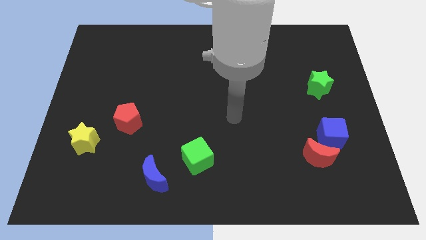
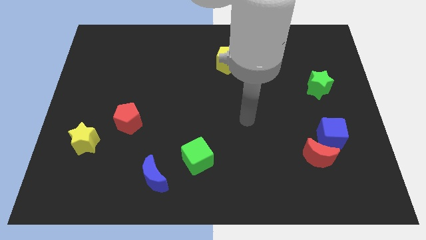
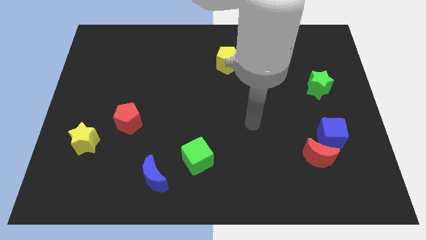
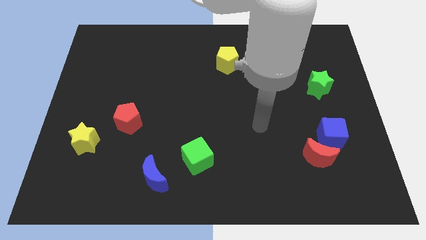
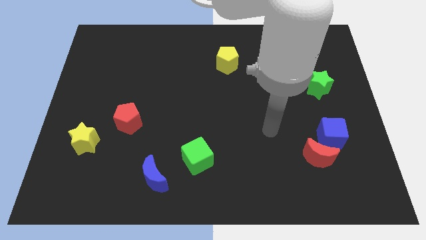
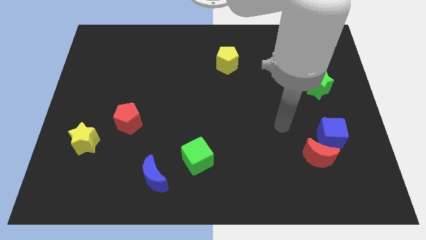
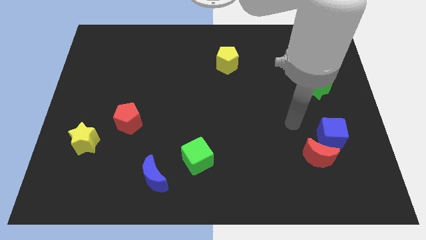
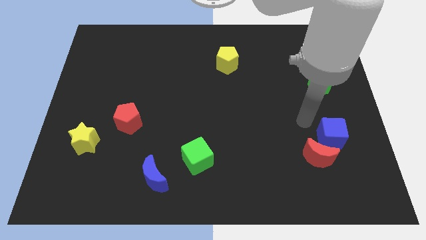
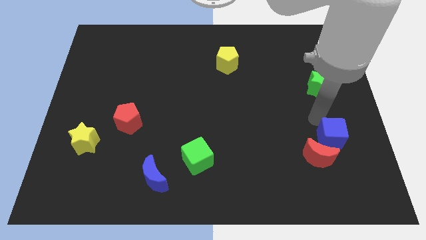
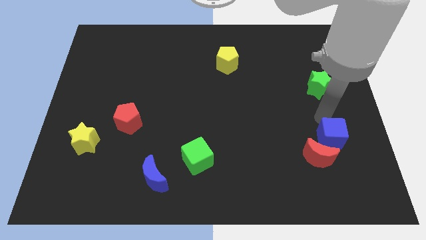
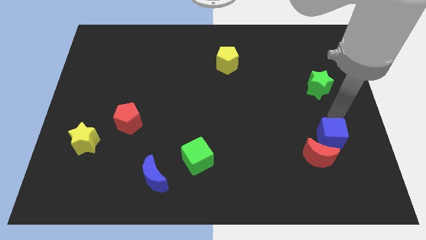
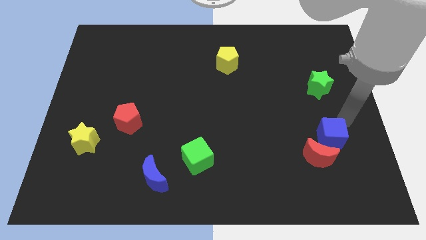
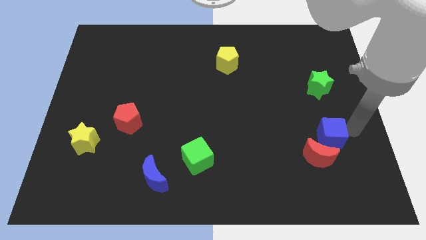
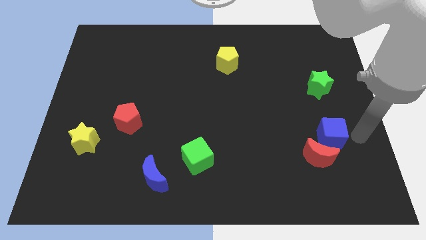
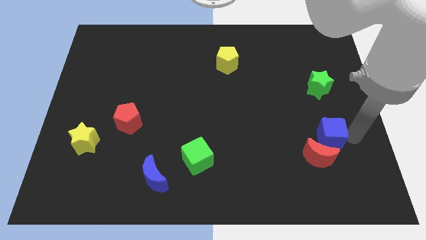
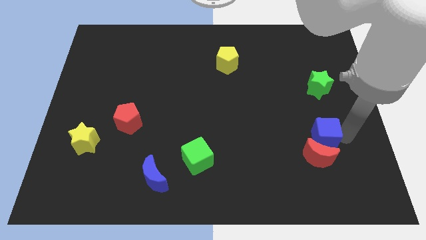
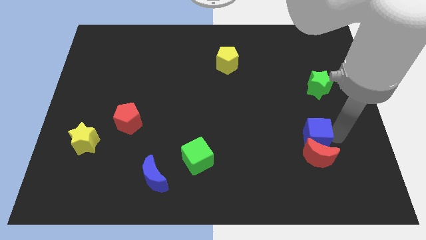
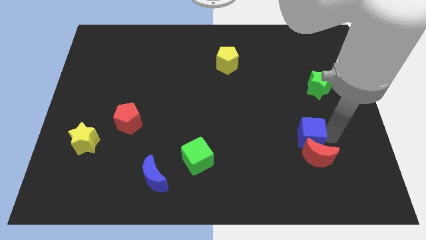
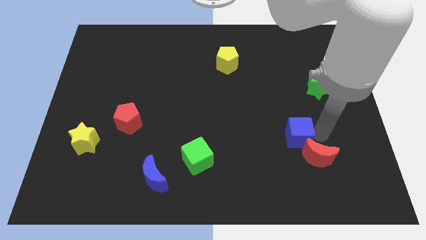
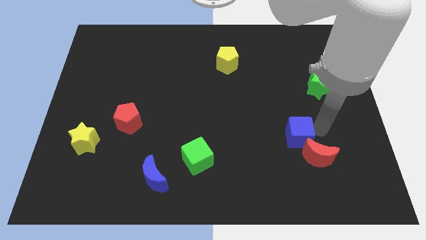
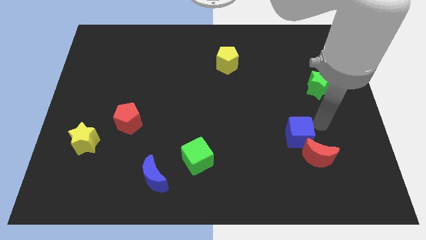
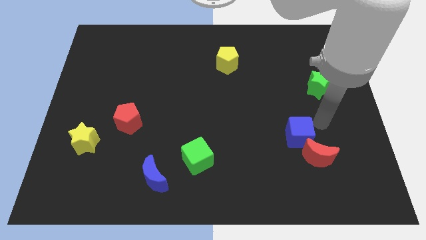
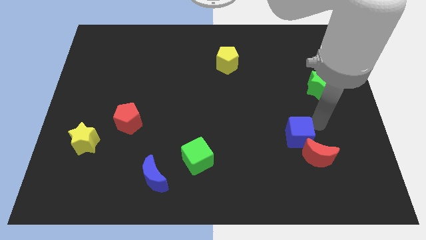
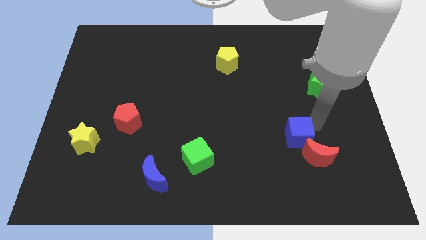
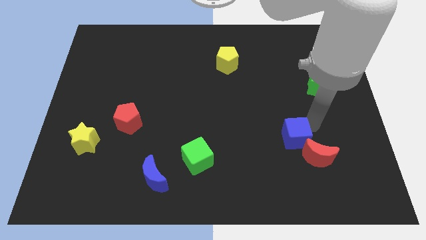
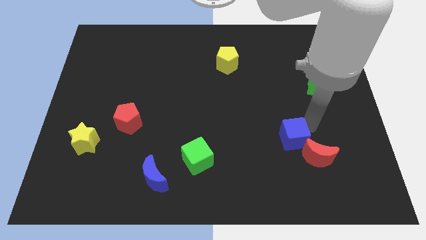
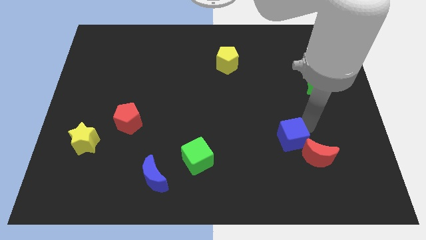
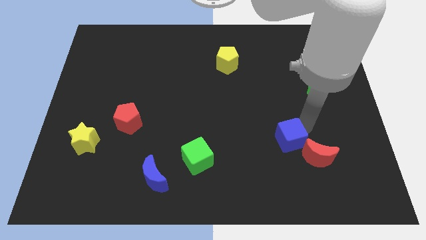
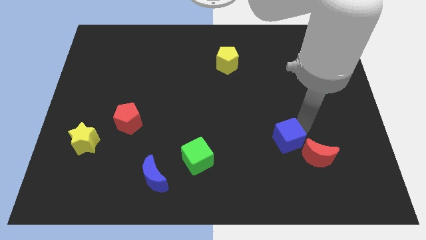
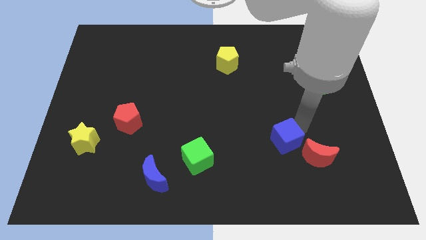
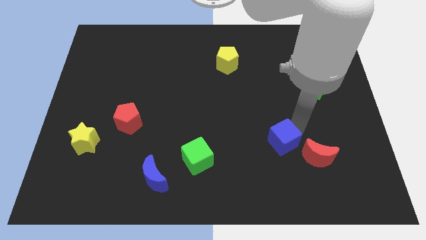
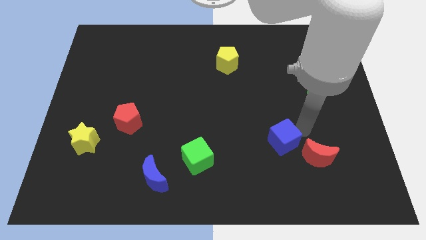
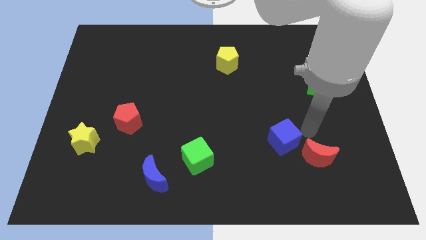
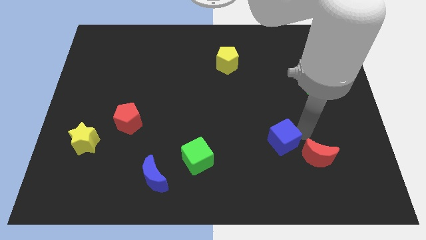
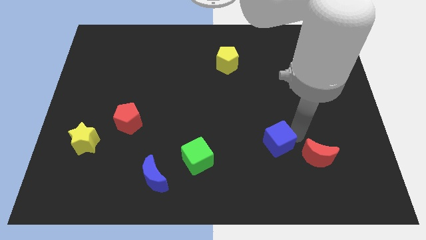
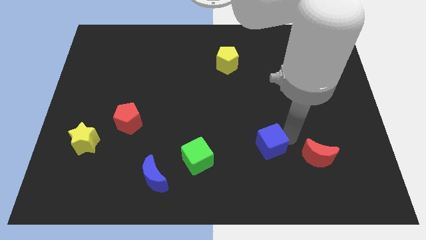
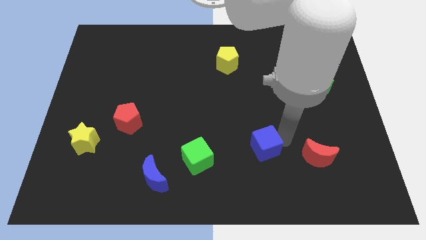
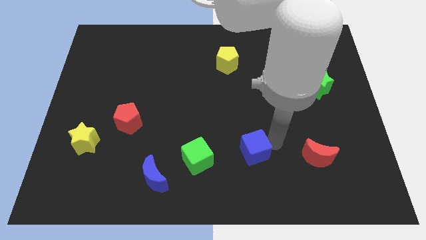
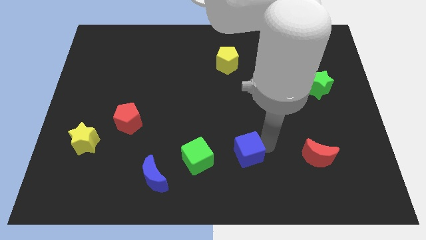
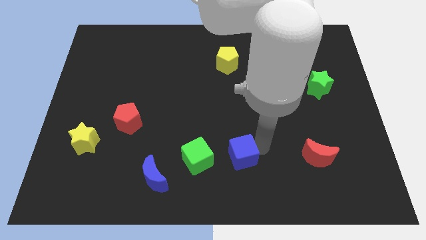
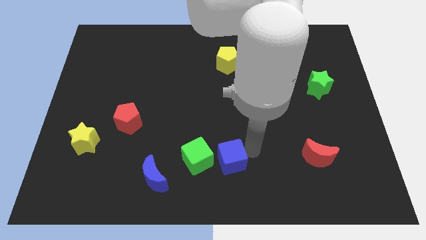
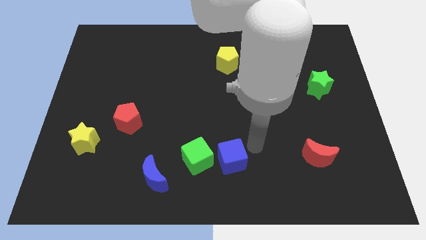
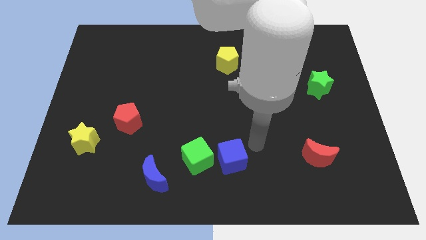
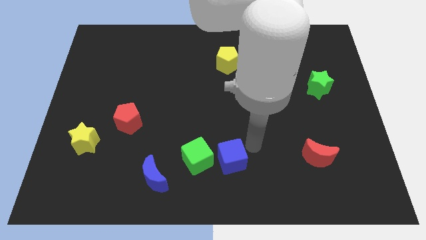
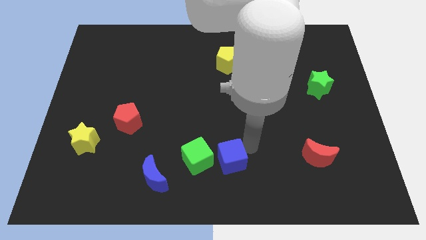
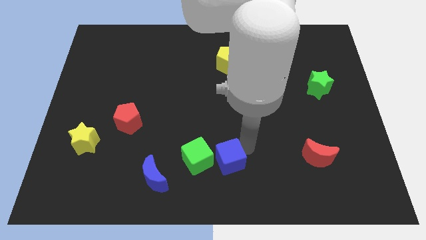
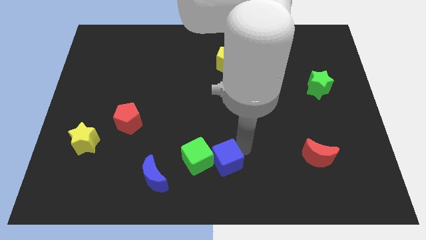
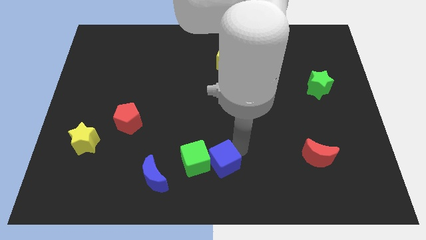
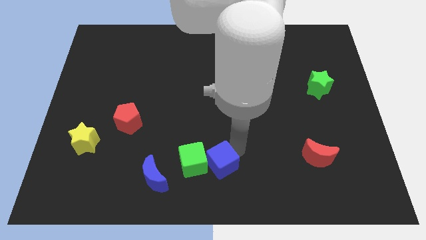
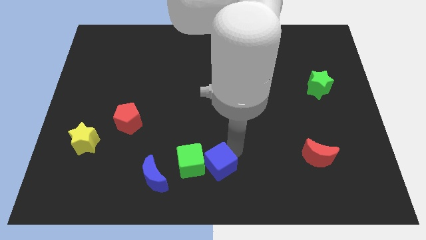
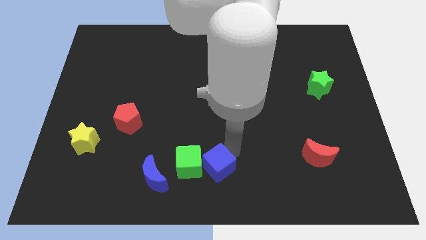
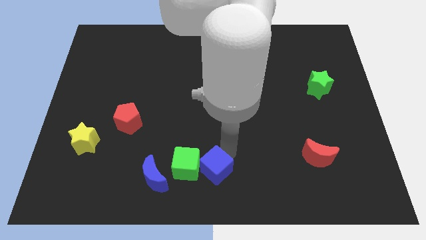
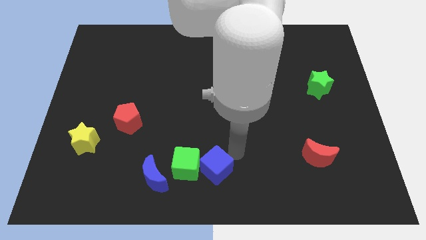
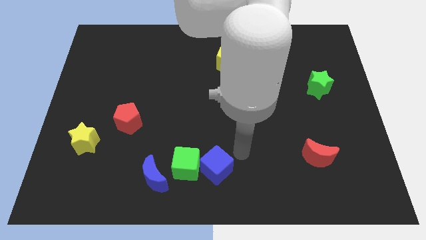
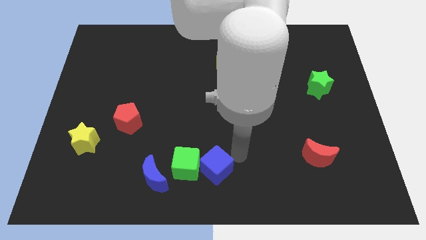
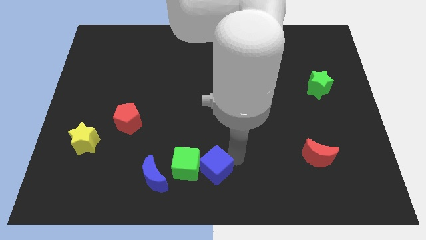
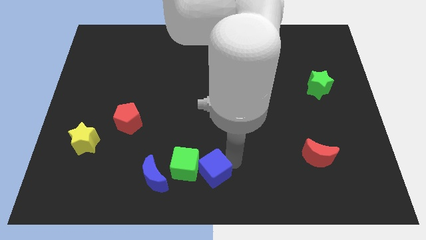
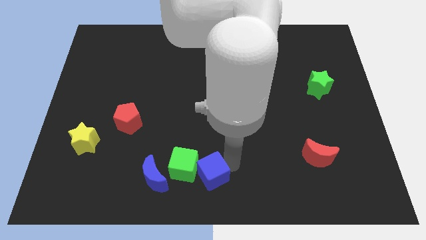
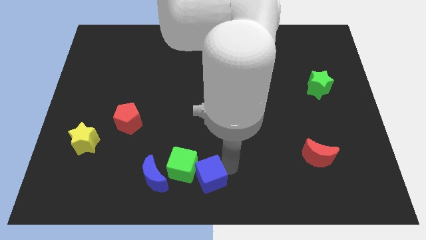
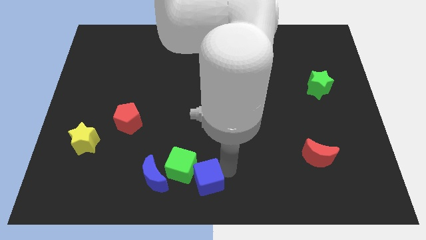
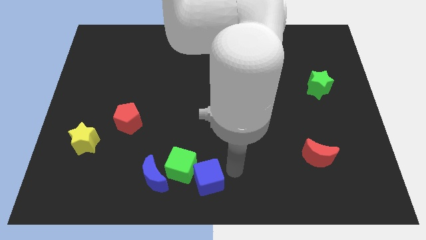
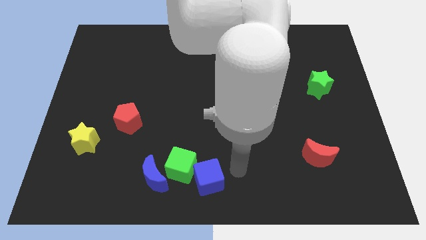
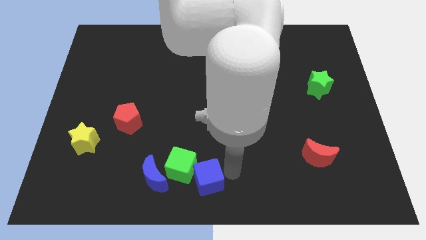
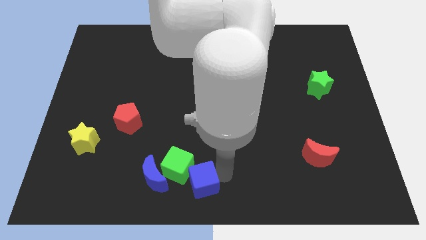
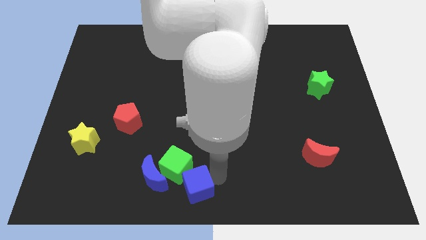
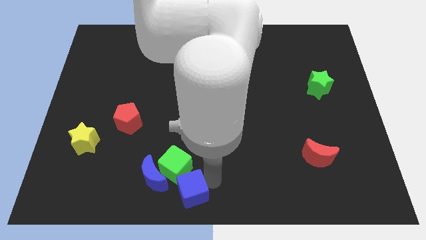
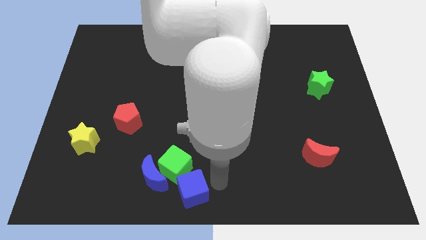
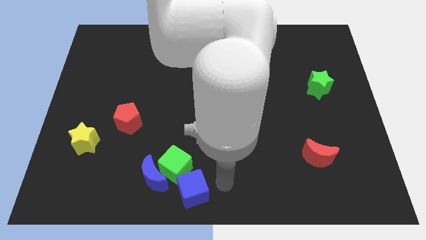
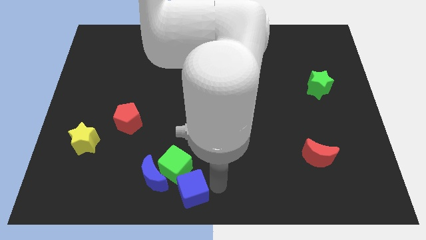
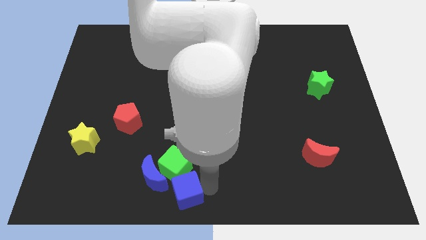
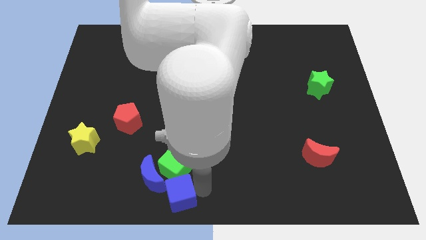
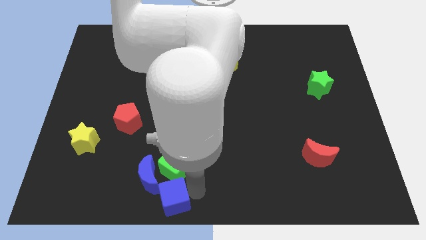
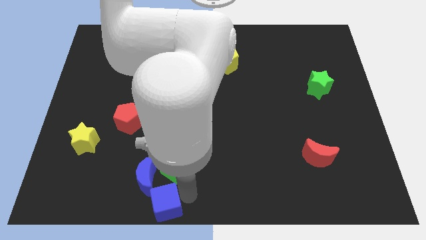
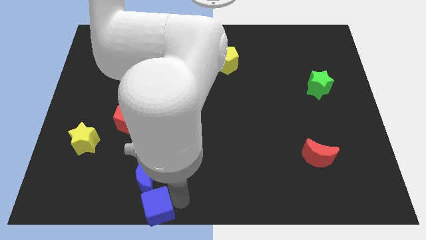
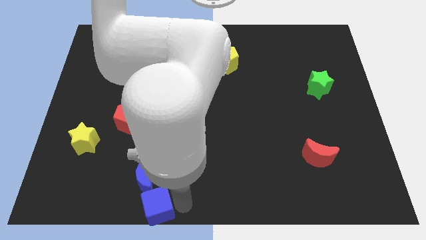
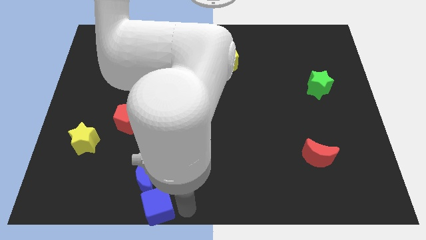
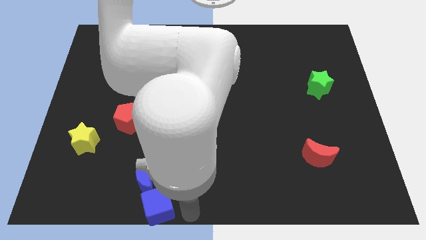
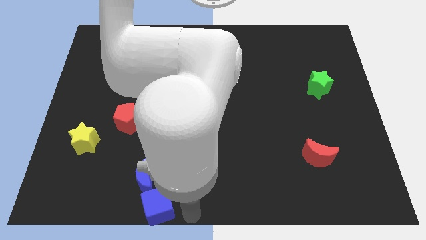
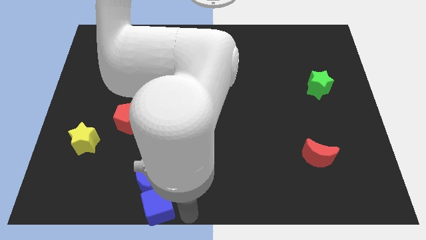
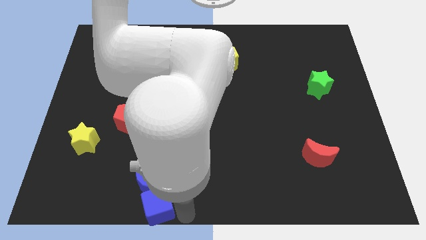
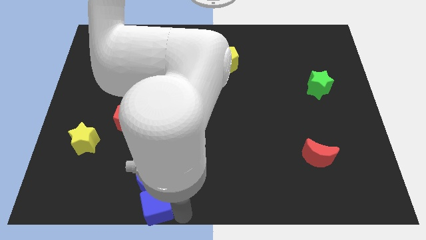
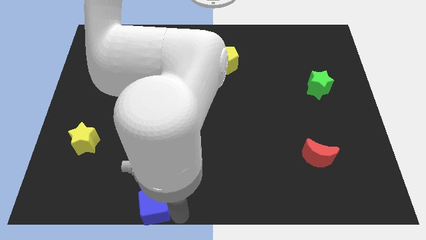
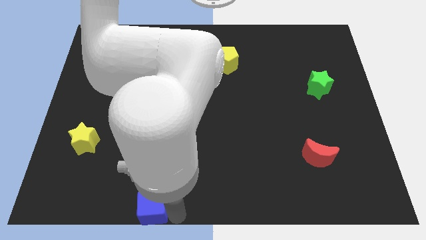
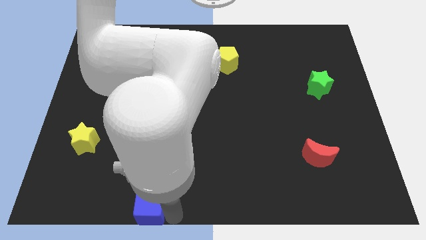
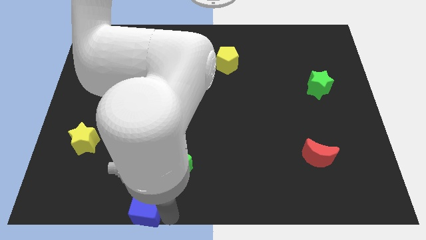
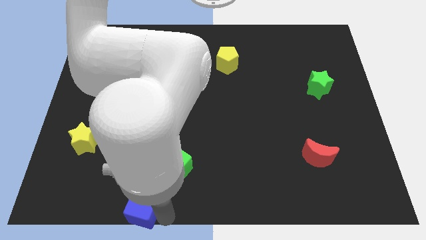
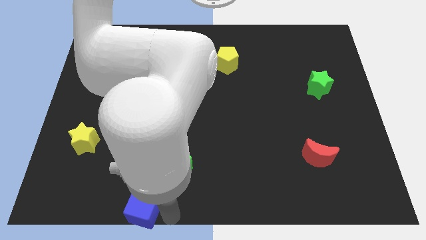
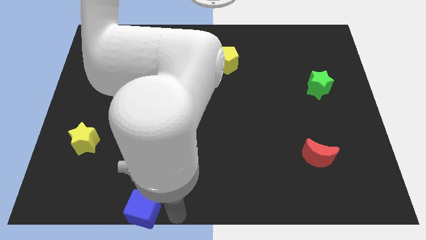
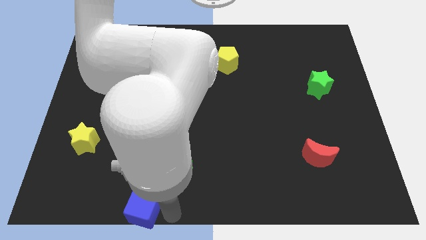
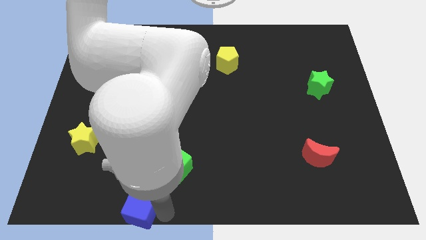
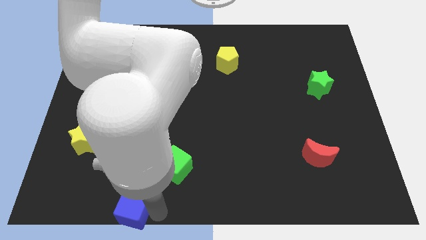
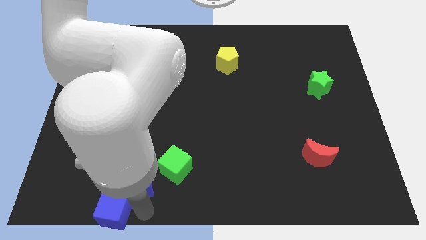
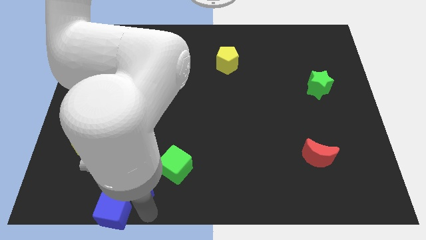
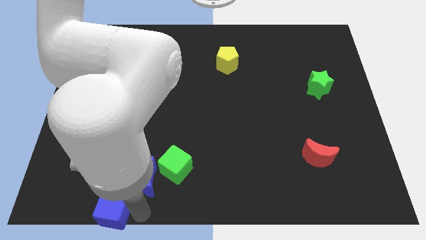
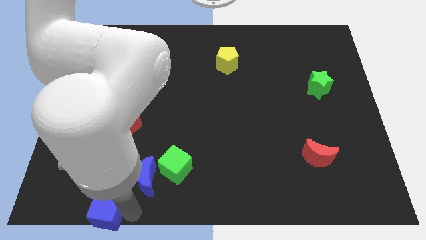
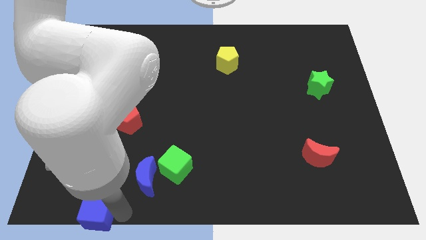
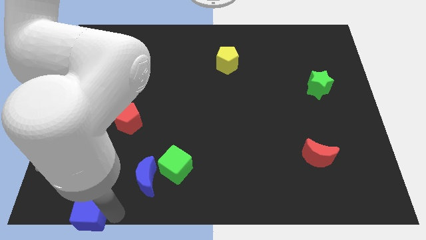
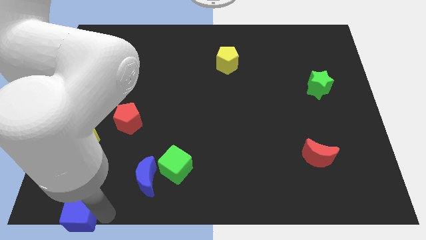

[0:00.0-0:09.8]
move the blue cube to the bottom left corner
